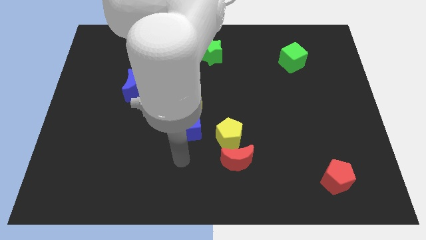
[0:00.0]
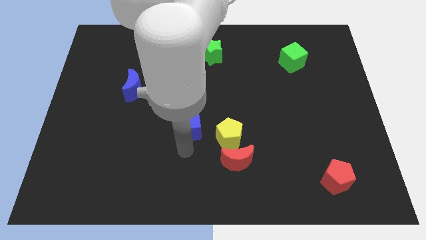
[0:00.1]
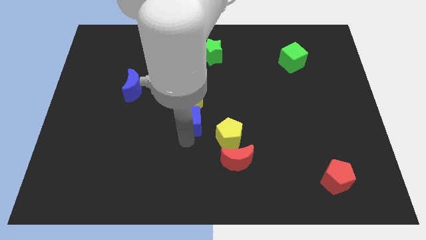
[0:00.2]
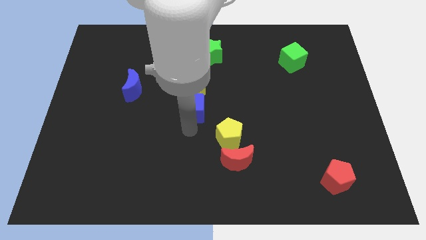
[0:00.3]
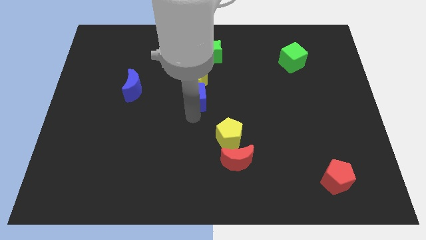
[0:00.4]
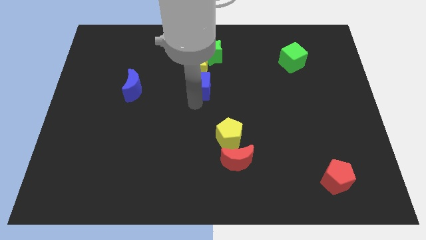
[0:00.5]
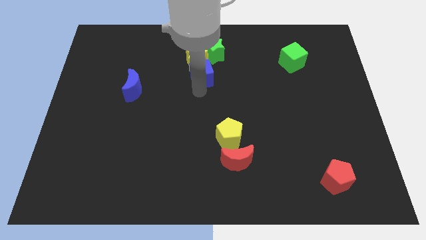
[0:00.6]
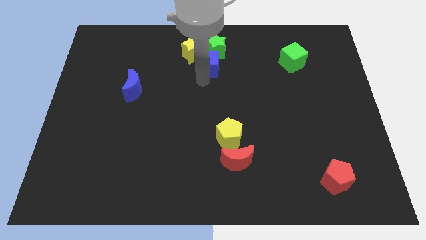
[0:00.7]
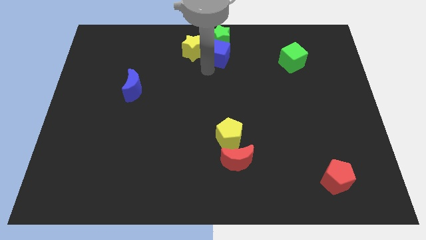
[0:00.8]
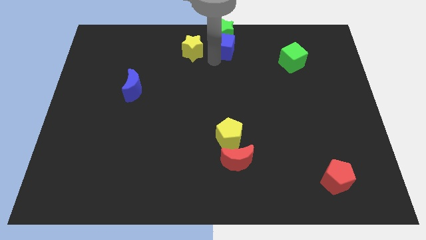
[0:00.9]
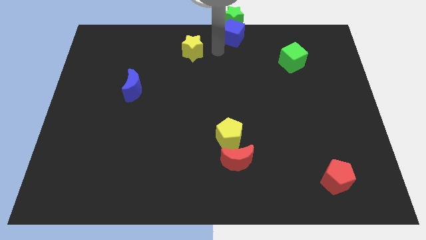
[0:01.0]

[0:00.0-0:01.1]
move the yellow star away from the blue cube

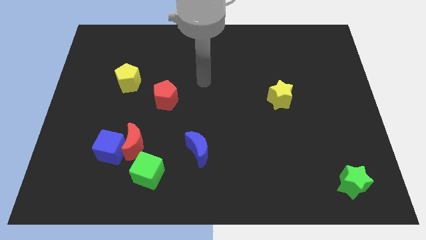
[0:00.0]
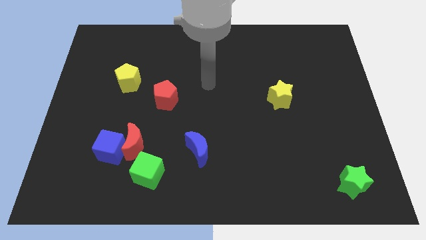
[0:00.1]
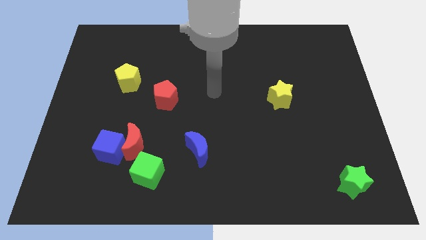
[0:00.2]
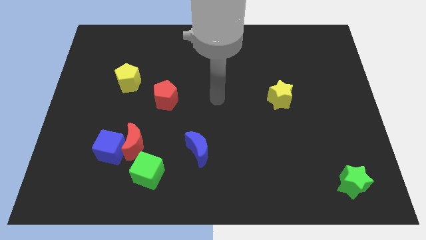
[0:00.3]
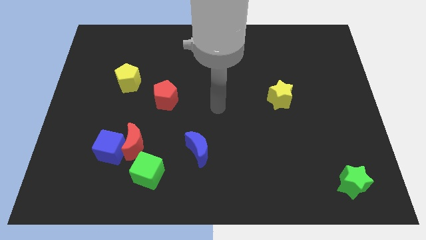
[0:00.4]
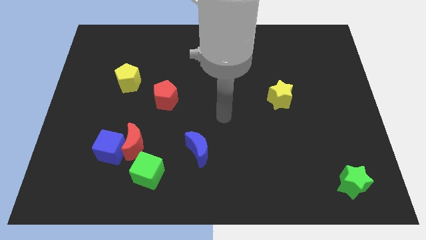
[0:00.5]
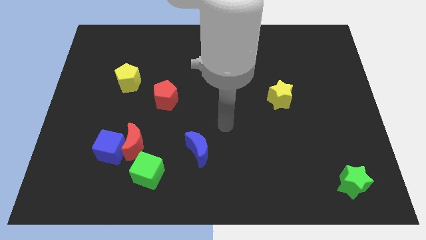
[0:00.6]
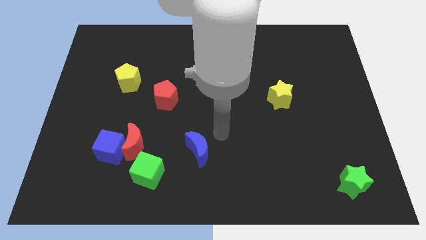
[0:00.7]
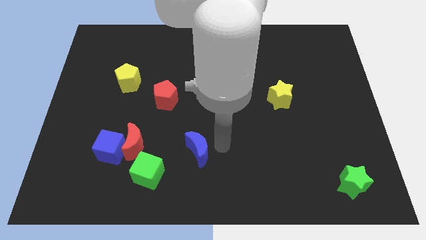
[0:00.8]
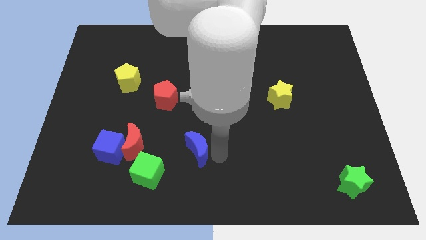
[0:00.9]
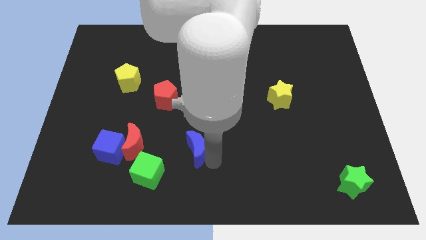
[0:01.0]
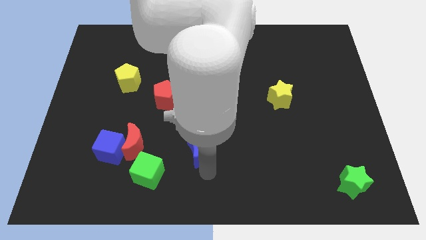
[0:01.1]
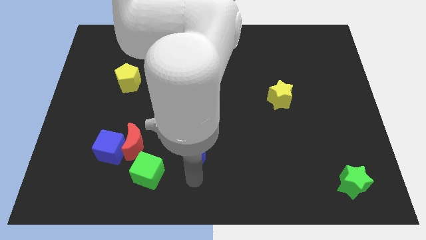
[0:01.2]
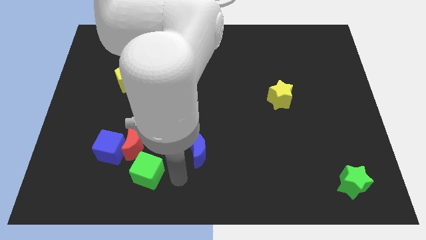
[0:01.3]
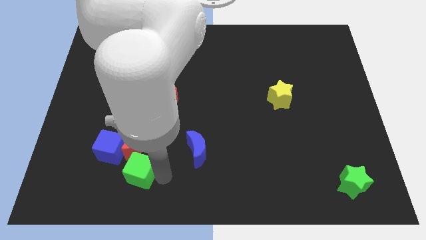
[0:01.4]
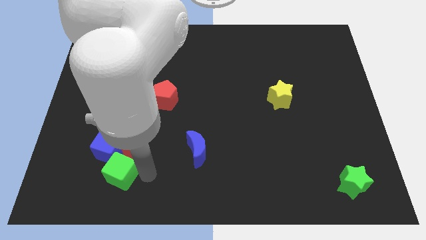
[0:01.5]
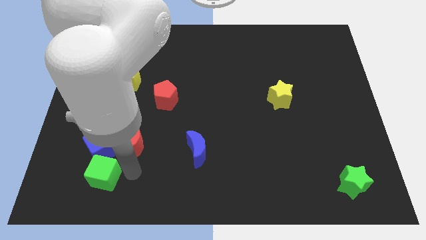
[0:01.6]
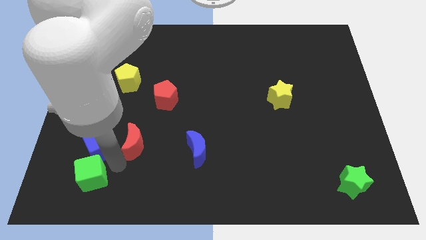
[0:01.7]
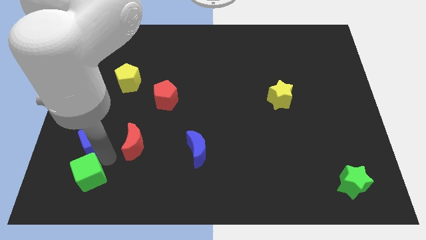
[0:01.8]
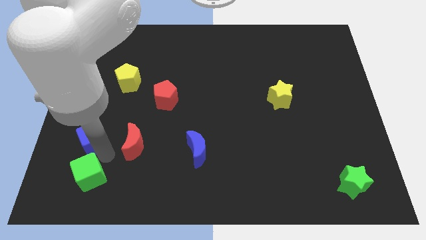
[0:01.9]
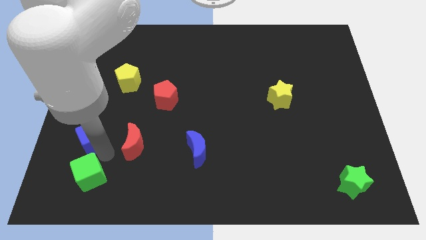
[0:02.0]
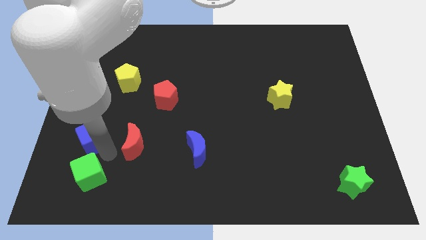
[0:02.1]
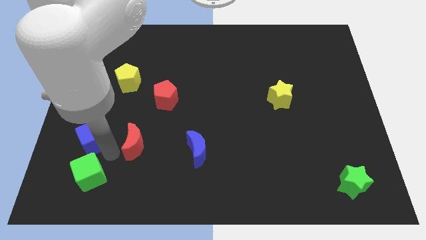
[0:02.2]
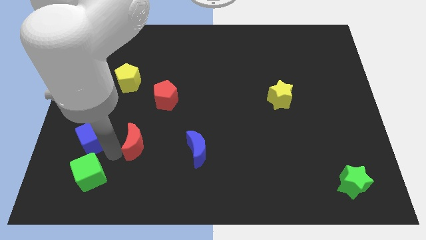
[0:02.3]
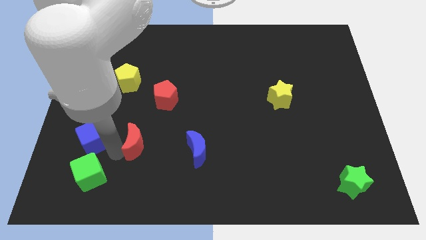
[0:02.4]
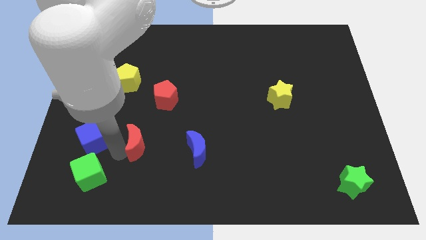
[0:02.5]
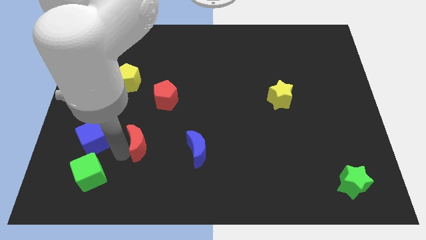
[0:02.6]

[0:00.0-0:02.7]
move the red moon away from the blue cube and green cube

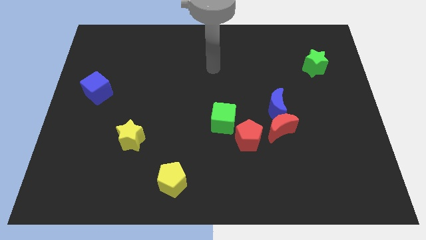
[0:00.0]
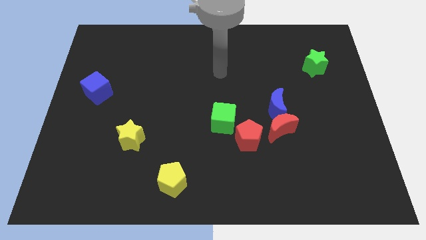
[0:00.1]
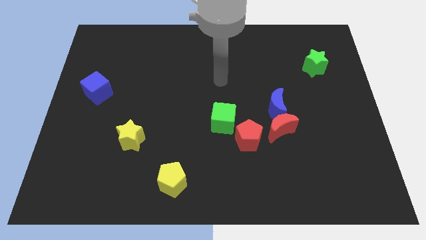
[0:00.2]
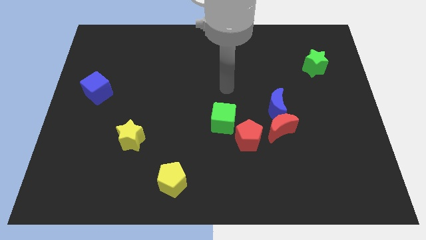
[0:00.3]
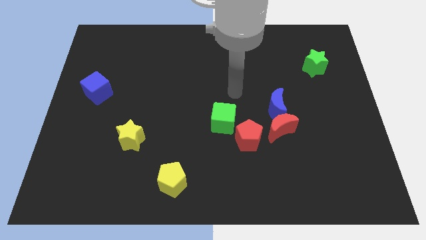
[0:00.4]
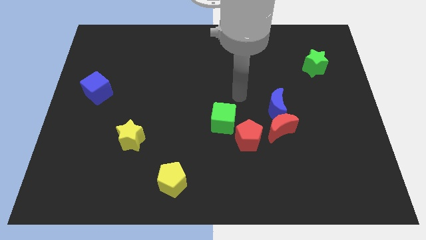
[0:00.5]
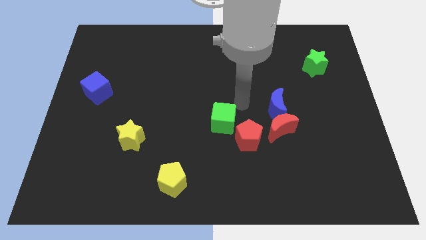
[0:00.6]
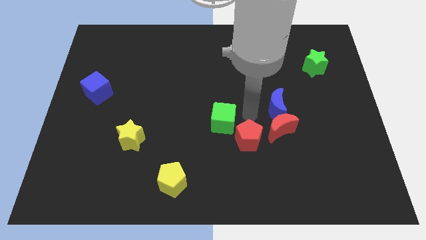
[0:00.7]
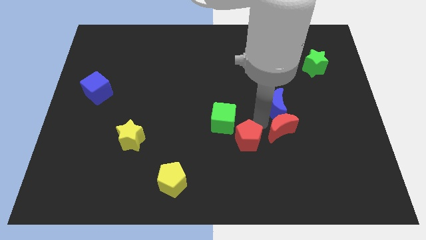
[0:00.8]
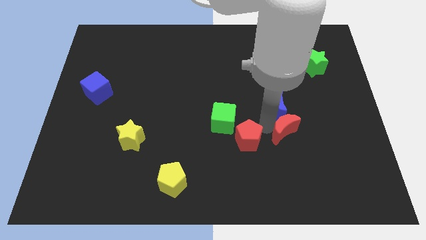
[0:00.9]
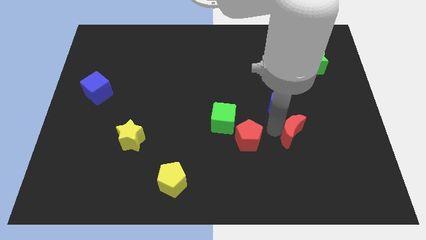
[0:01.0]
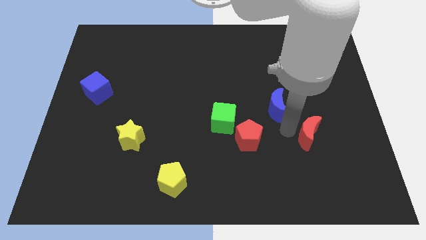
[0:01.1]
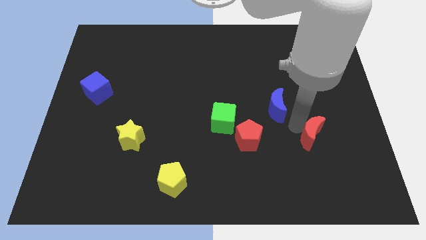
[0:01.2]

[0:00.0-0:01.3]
pull the blue moon apart from the red moon

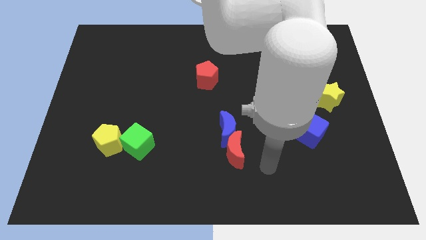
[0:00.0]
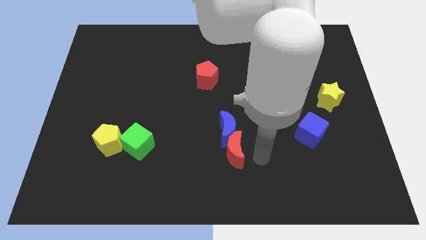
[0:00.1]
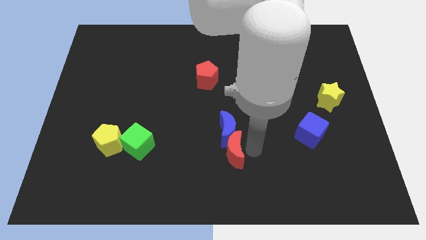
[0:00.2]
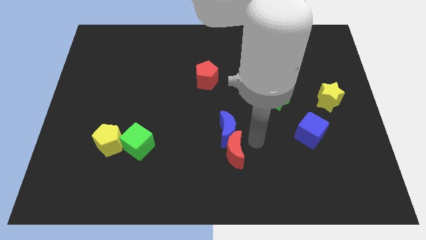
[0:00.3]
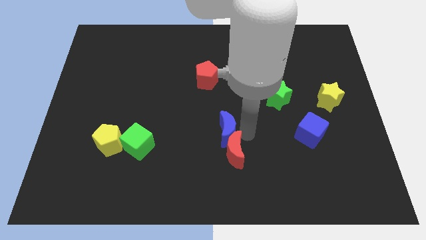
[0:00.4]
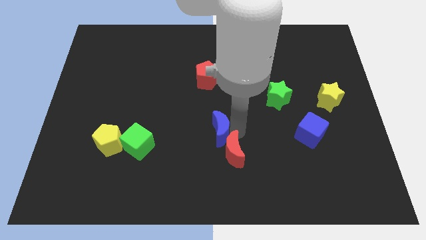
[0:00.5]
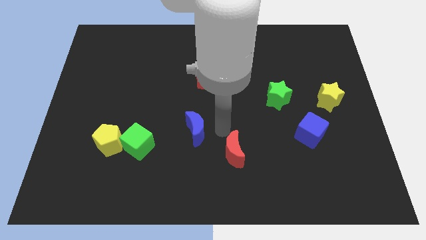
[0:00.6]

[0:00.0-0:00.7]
pull the red moon apart from the blue moon

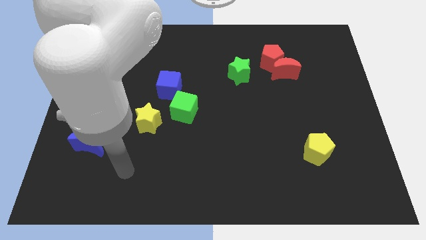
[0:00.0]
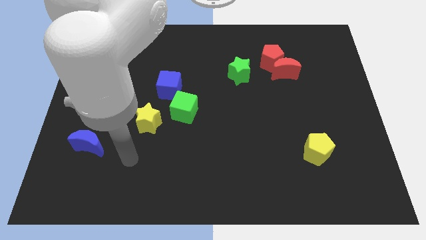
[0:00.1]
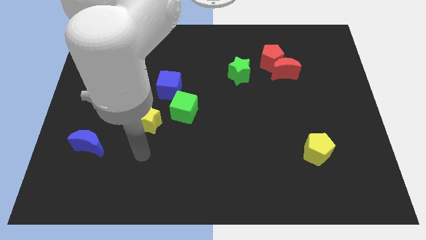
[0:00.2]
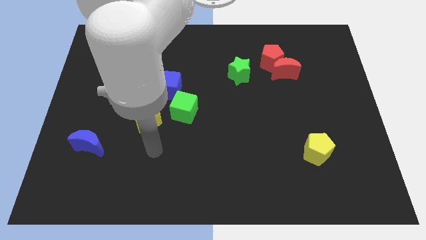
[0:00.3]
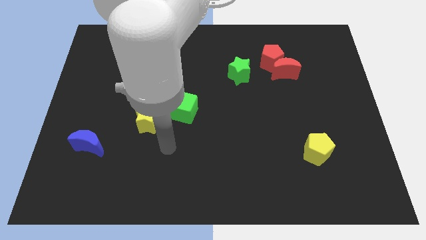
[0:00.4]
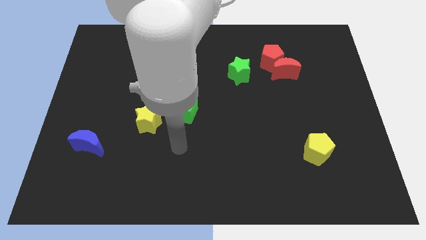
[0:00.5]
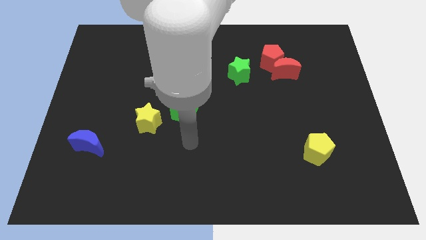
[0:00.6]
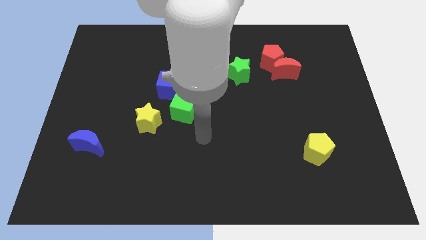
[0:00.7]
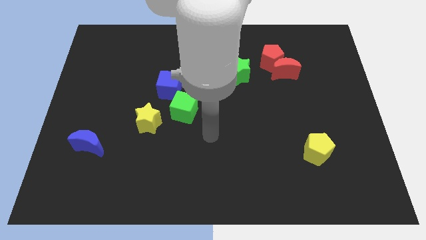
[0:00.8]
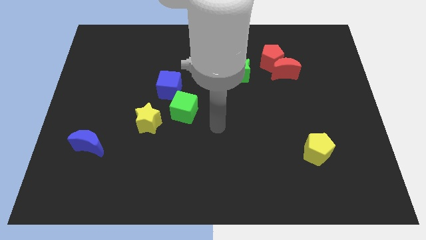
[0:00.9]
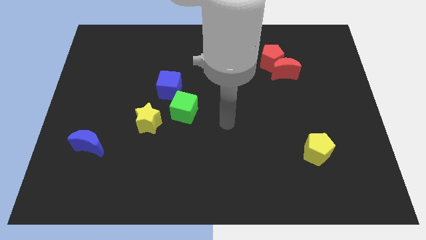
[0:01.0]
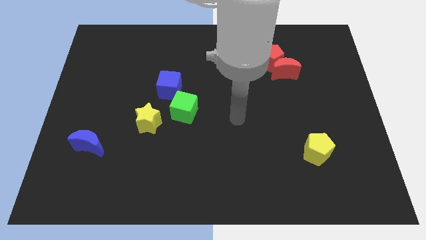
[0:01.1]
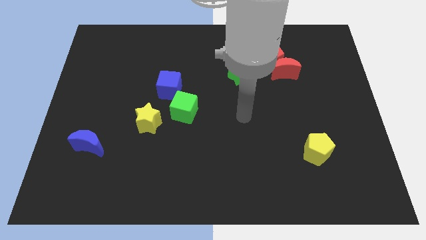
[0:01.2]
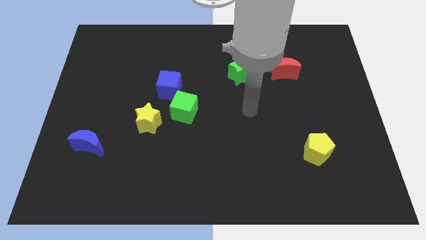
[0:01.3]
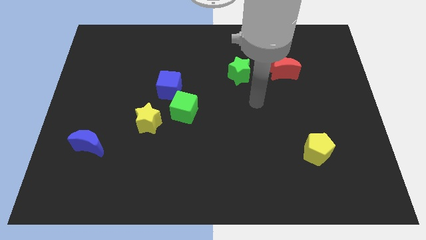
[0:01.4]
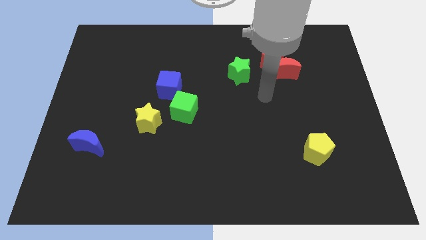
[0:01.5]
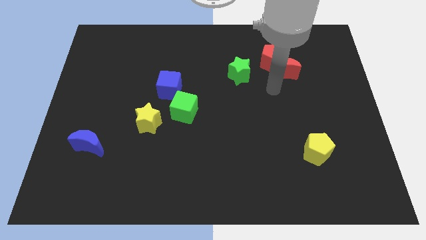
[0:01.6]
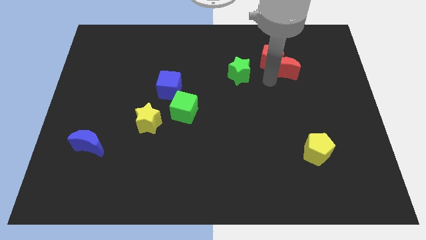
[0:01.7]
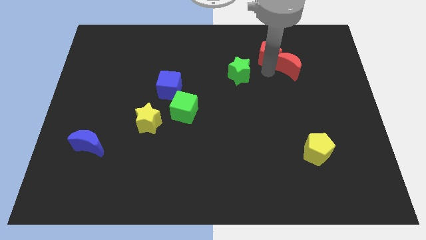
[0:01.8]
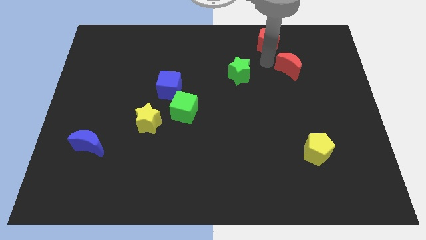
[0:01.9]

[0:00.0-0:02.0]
move the red moon away from the red pentagon

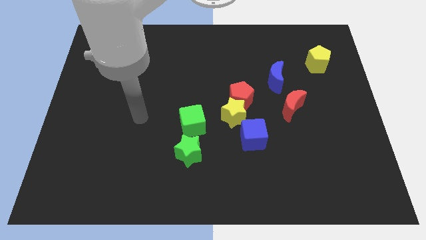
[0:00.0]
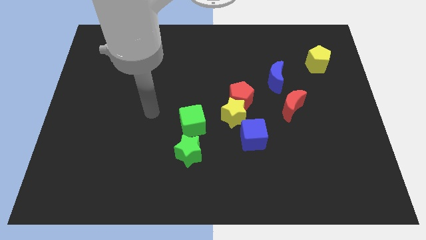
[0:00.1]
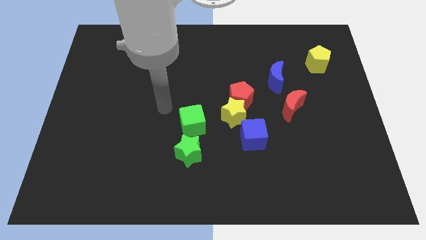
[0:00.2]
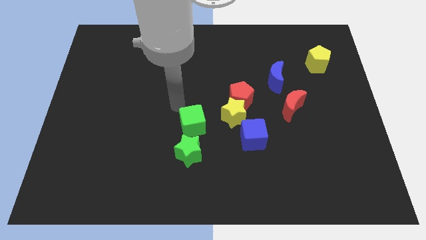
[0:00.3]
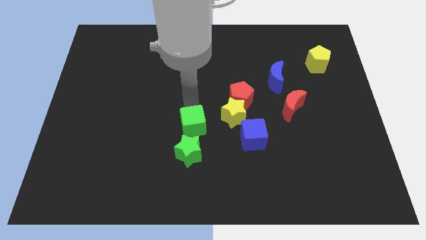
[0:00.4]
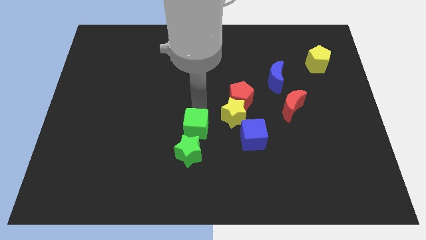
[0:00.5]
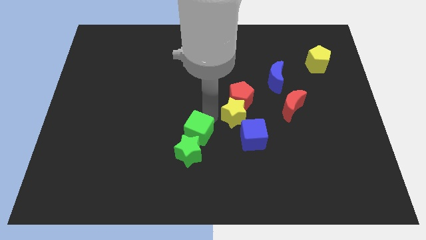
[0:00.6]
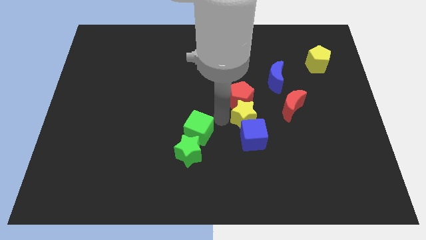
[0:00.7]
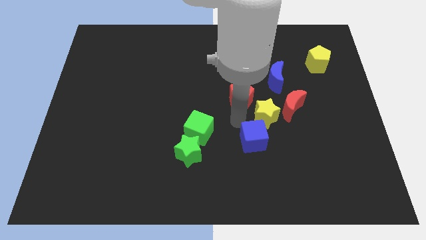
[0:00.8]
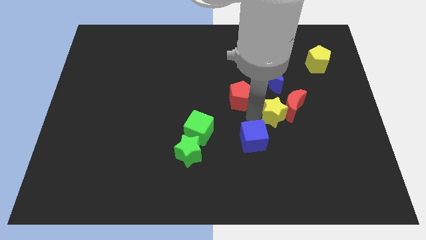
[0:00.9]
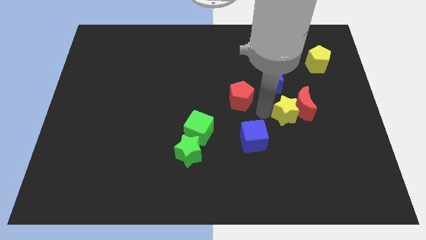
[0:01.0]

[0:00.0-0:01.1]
move the red pentagon away from the yellow star

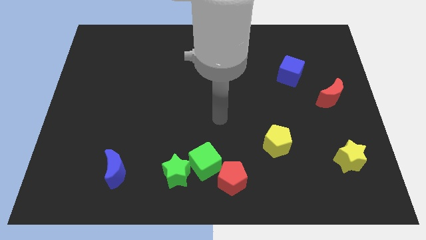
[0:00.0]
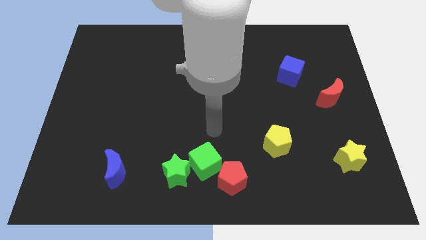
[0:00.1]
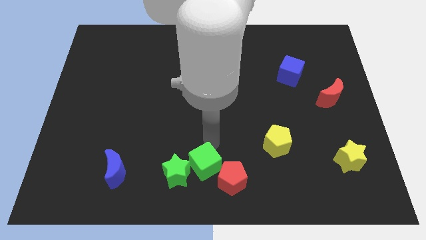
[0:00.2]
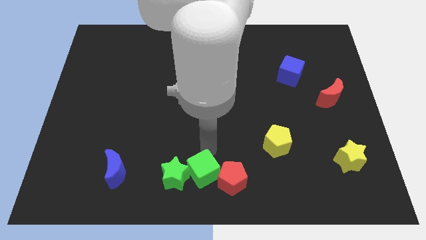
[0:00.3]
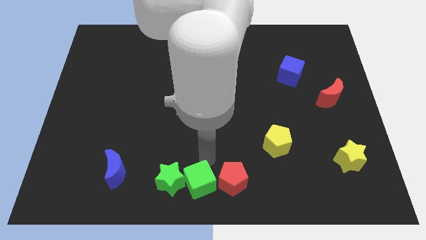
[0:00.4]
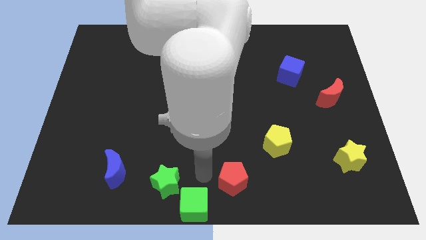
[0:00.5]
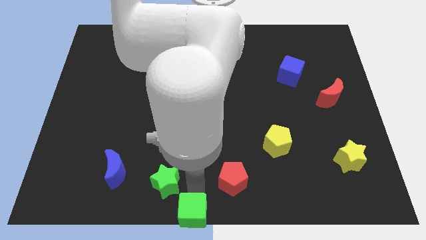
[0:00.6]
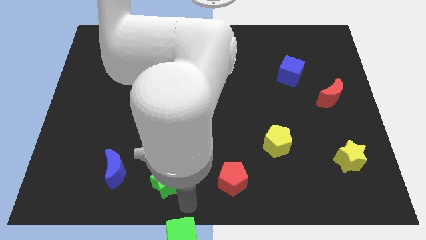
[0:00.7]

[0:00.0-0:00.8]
pull the green star apart from the green cube
